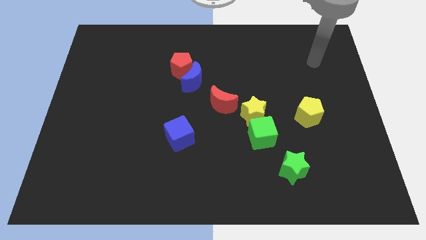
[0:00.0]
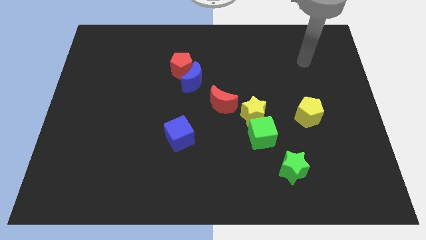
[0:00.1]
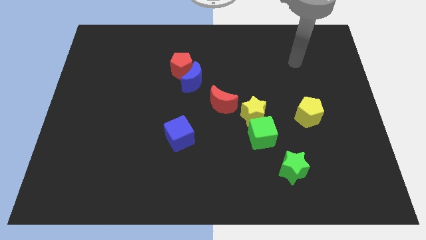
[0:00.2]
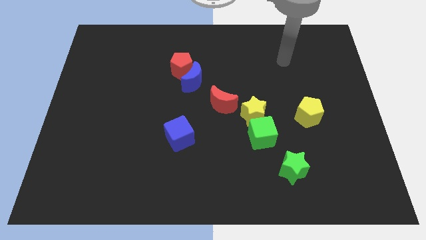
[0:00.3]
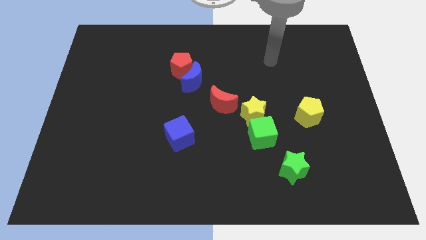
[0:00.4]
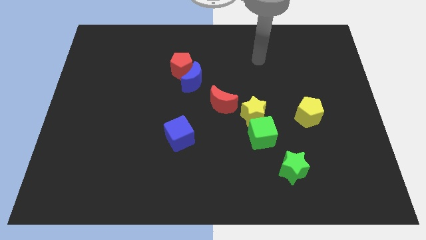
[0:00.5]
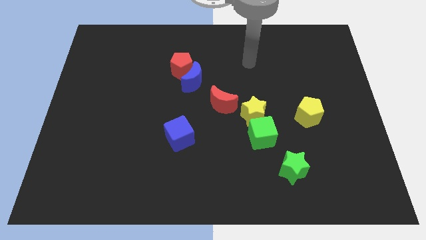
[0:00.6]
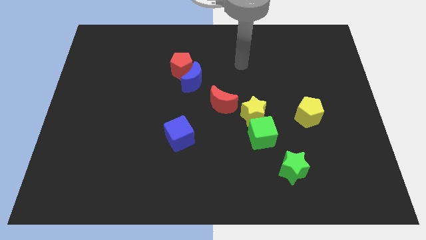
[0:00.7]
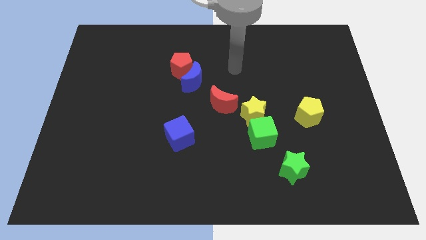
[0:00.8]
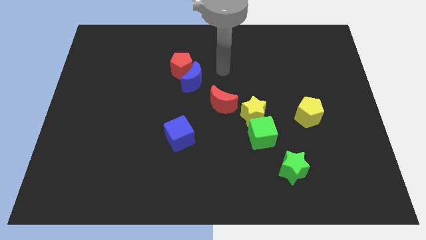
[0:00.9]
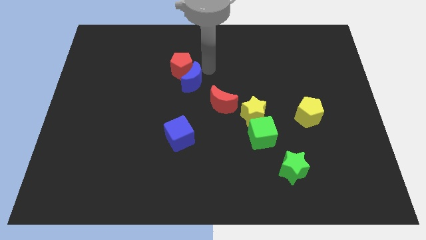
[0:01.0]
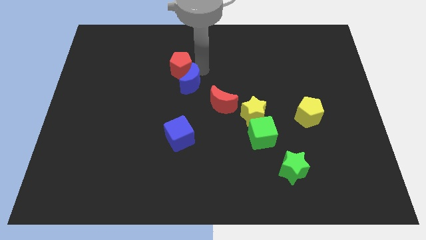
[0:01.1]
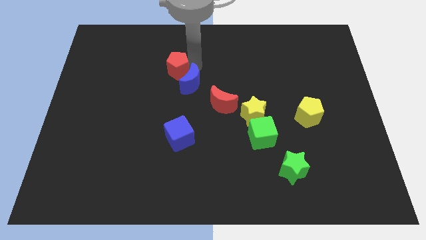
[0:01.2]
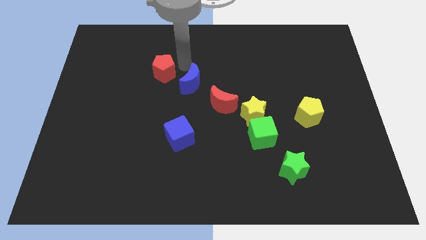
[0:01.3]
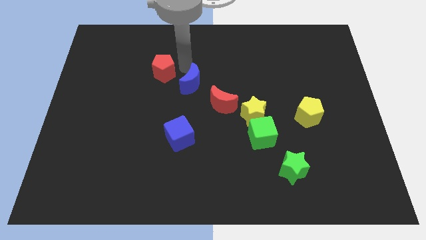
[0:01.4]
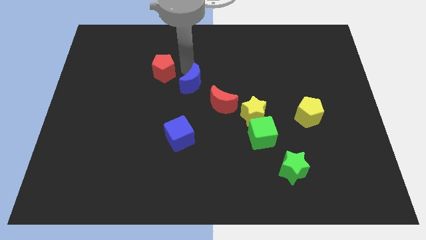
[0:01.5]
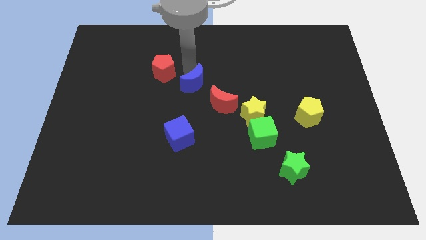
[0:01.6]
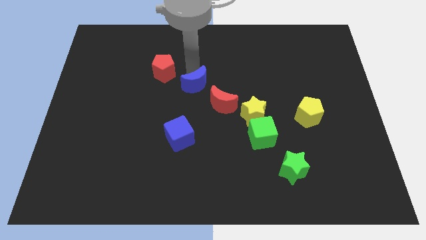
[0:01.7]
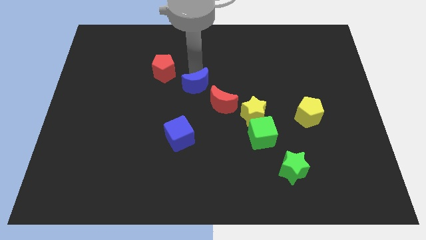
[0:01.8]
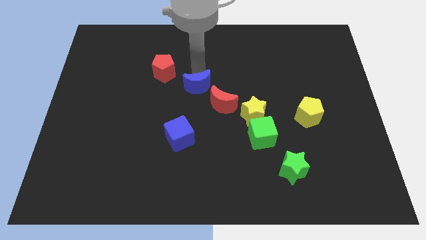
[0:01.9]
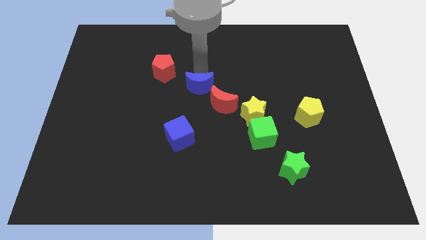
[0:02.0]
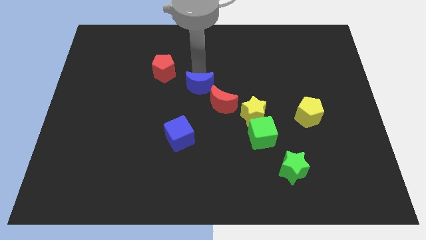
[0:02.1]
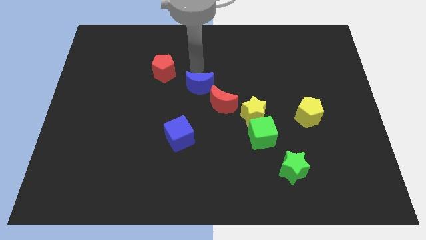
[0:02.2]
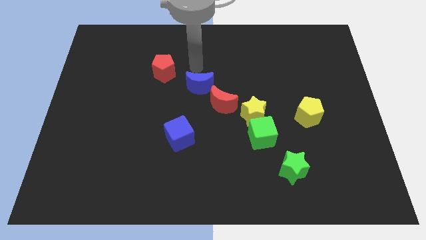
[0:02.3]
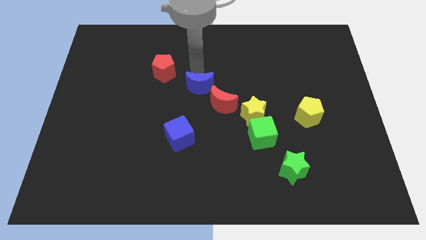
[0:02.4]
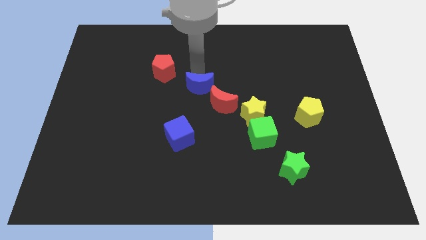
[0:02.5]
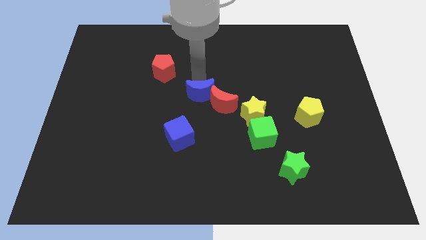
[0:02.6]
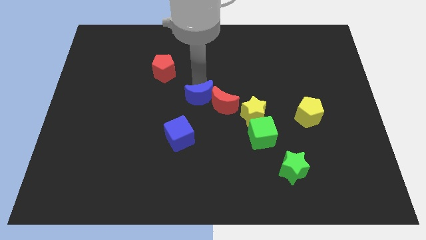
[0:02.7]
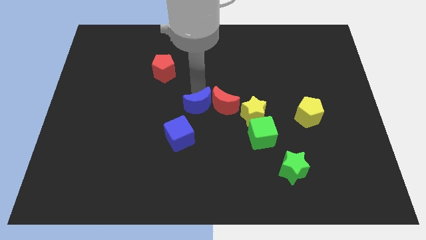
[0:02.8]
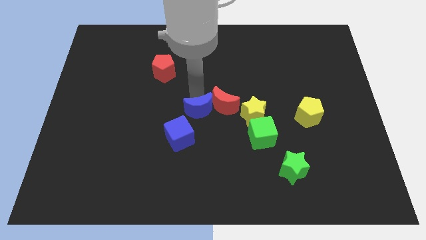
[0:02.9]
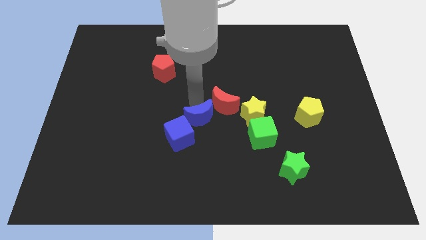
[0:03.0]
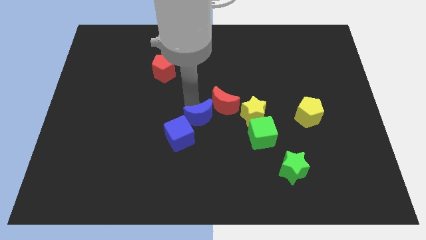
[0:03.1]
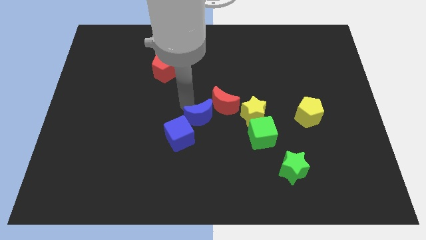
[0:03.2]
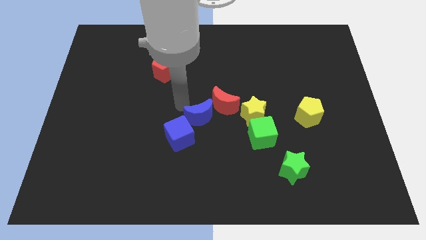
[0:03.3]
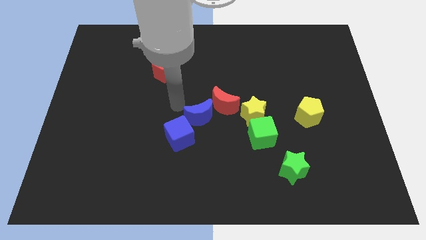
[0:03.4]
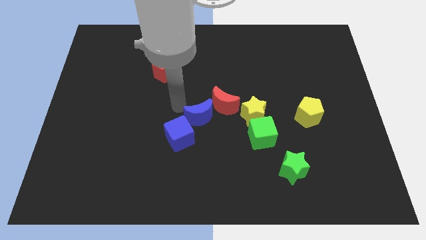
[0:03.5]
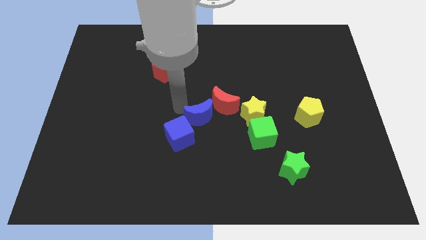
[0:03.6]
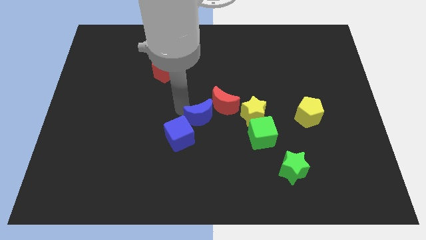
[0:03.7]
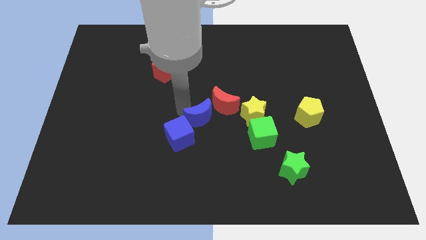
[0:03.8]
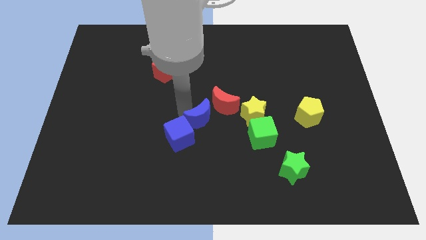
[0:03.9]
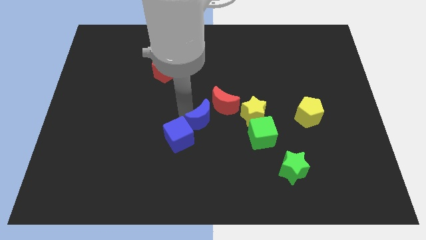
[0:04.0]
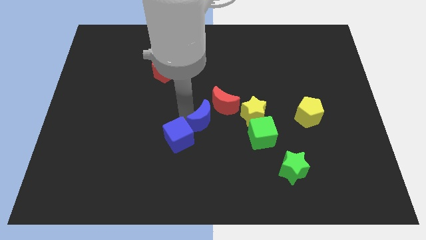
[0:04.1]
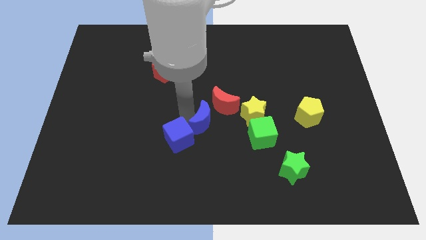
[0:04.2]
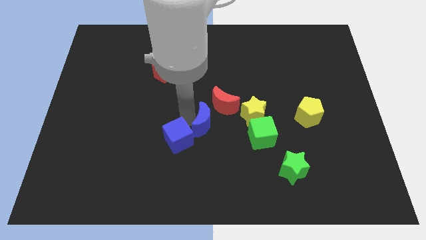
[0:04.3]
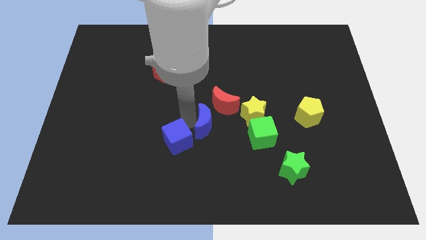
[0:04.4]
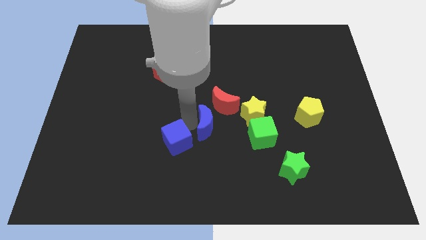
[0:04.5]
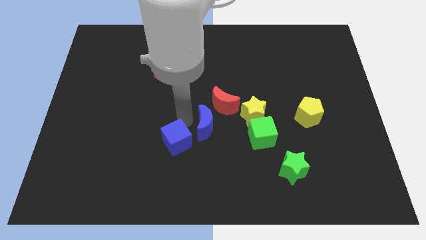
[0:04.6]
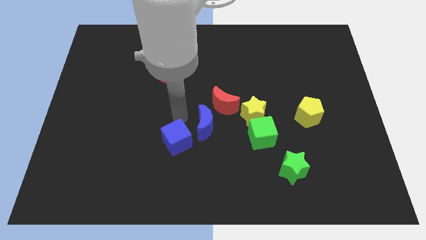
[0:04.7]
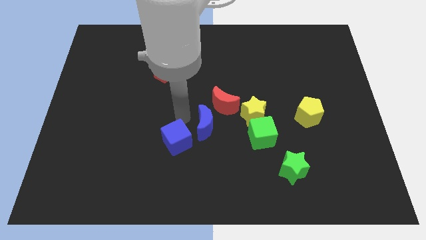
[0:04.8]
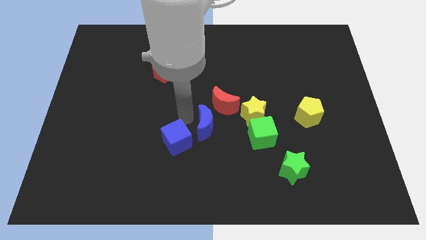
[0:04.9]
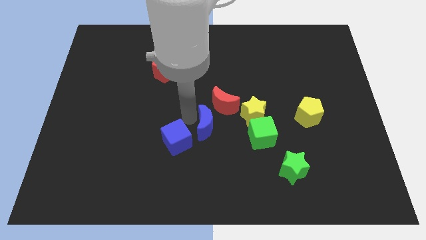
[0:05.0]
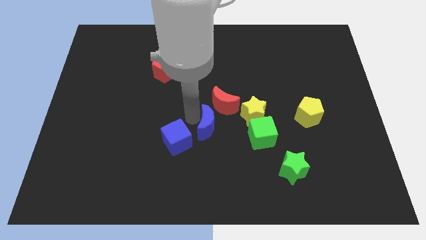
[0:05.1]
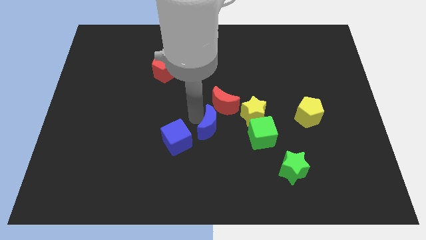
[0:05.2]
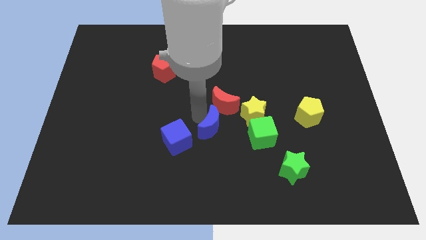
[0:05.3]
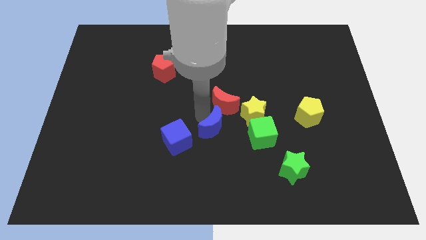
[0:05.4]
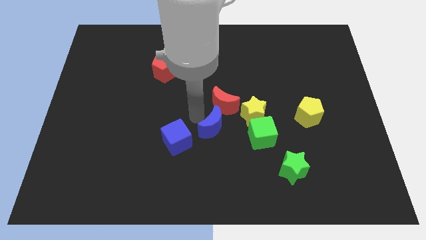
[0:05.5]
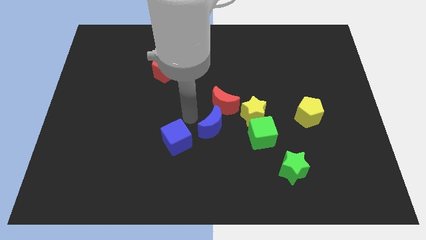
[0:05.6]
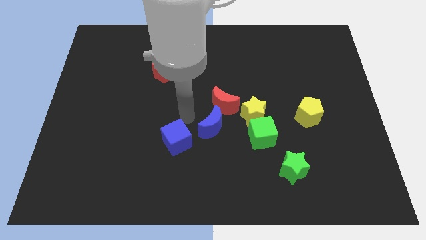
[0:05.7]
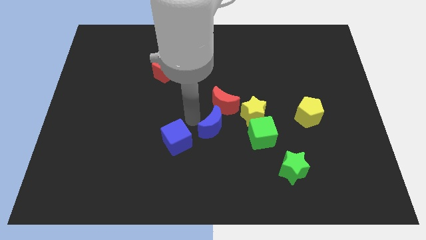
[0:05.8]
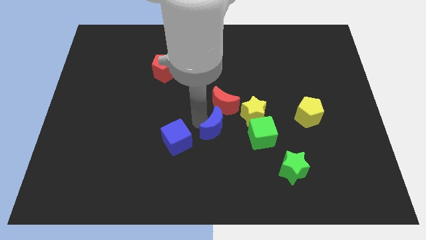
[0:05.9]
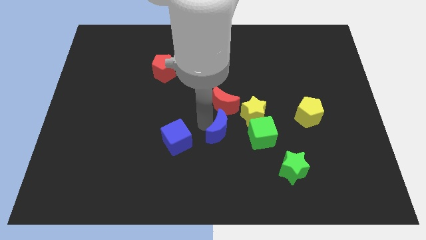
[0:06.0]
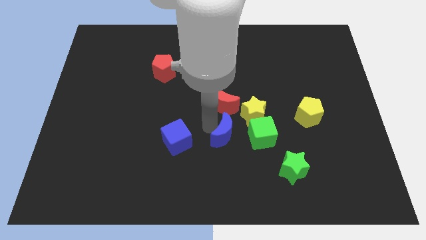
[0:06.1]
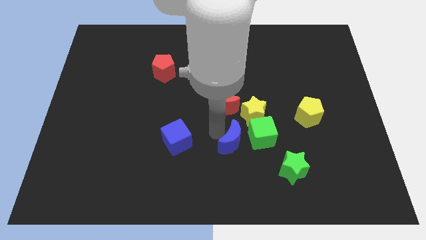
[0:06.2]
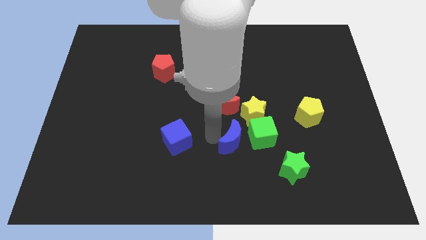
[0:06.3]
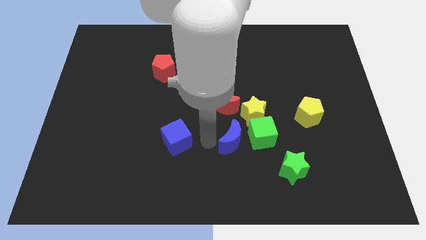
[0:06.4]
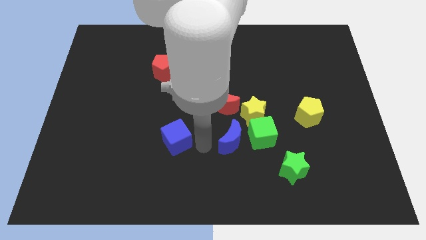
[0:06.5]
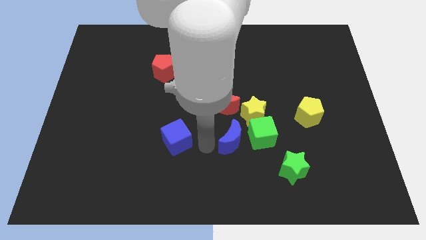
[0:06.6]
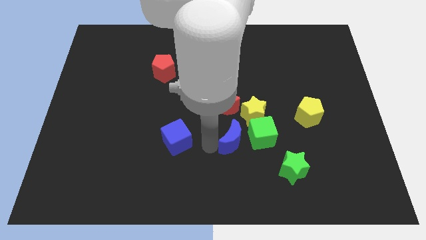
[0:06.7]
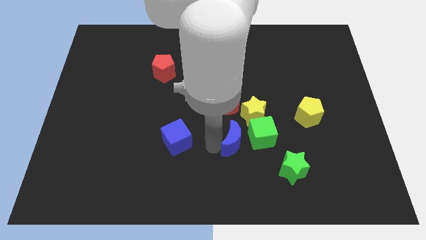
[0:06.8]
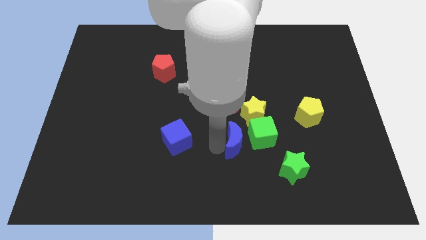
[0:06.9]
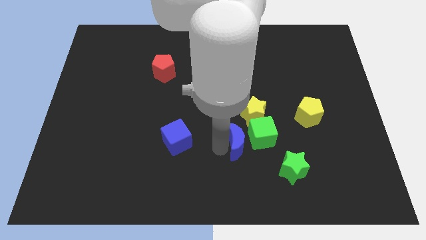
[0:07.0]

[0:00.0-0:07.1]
put the blue moon close to the green cube

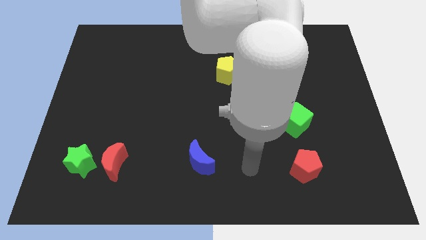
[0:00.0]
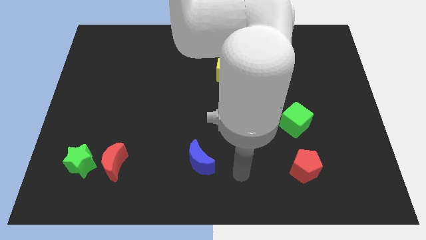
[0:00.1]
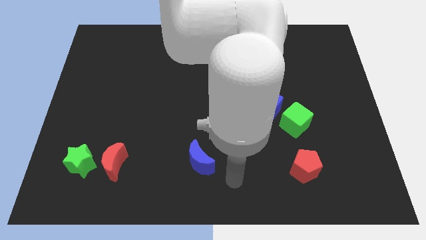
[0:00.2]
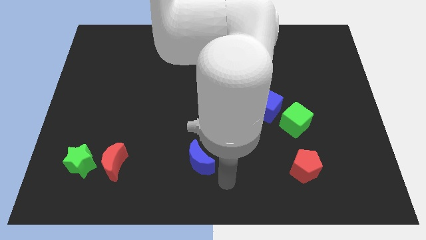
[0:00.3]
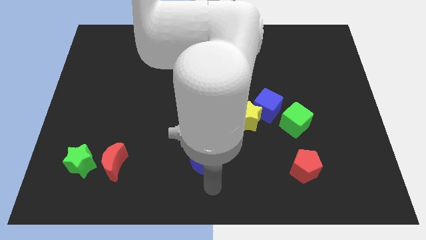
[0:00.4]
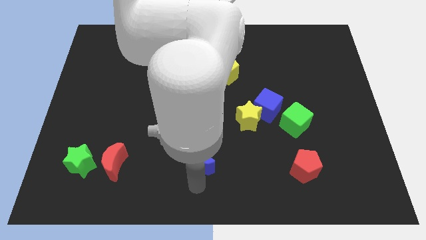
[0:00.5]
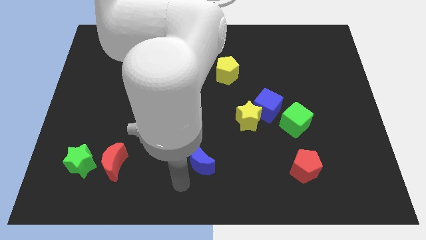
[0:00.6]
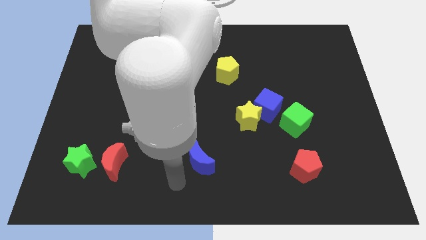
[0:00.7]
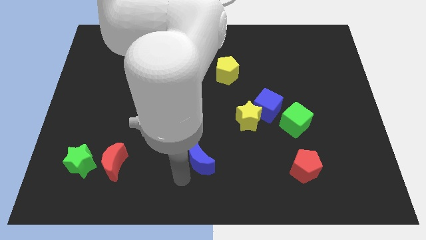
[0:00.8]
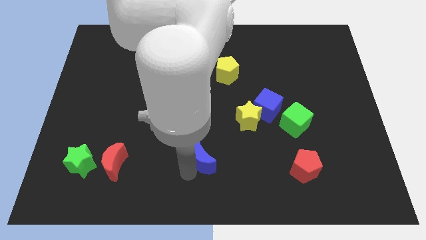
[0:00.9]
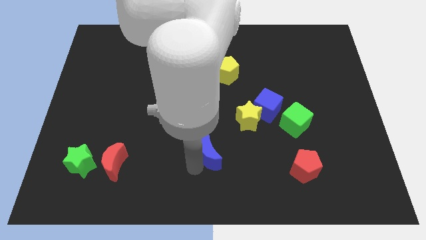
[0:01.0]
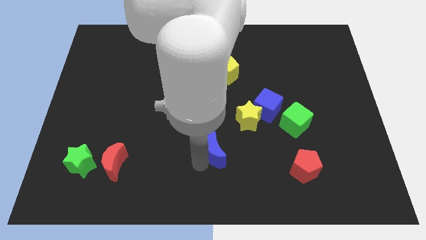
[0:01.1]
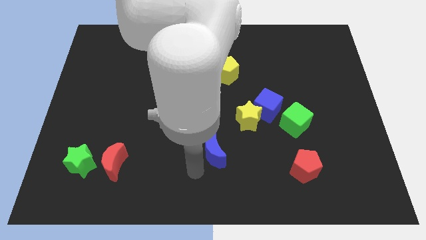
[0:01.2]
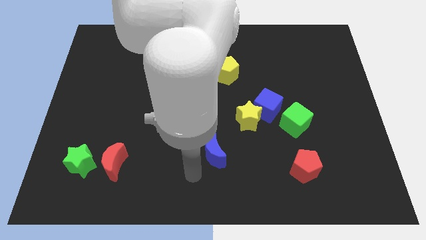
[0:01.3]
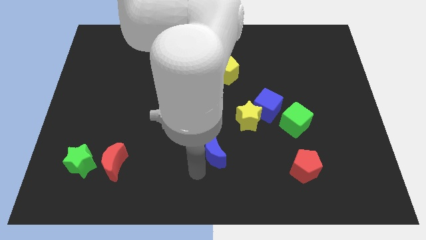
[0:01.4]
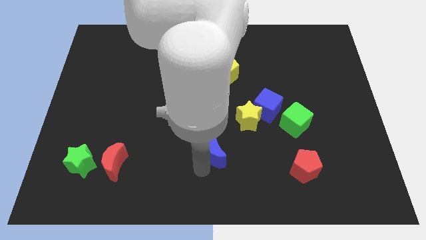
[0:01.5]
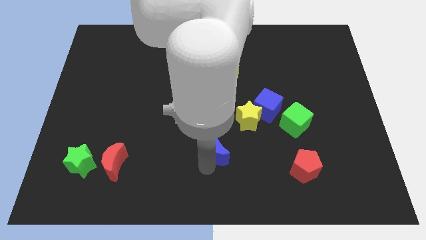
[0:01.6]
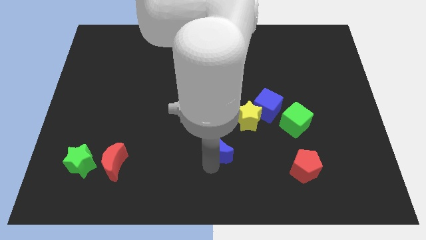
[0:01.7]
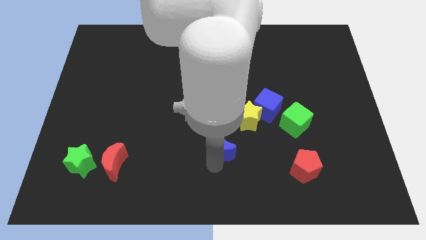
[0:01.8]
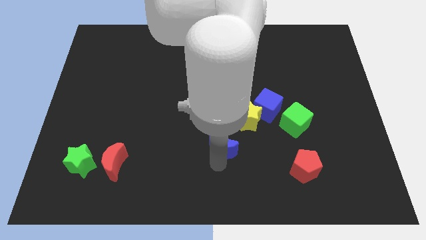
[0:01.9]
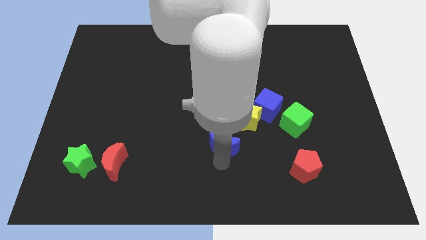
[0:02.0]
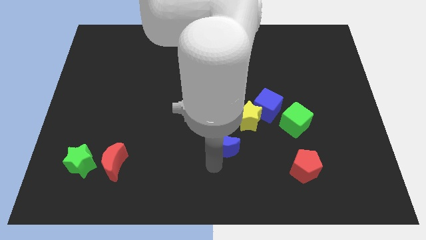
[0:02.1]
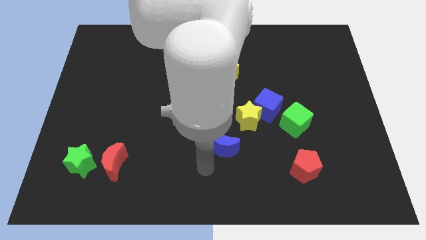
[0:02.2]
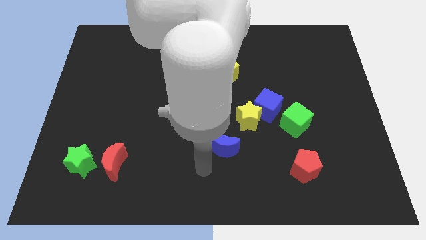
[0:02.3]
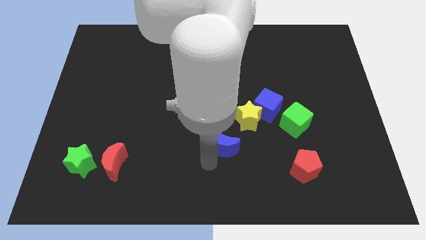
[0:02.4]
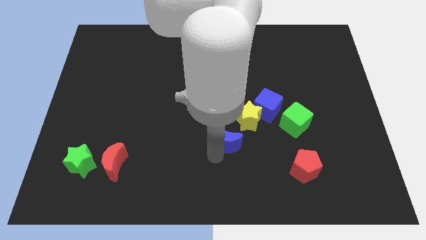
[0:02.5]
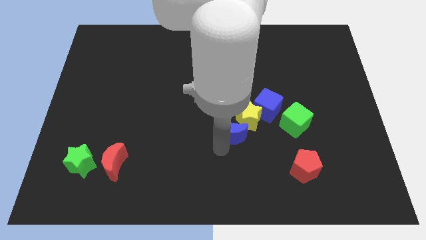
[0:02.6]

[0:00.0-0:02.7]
push the blue moon close to the yellow star
